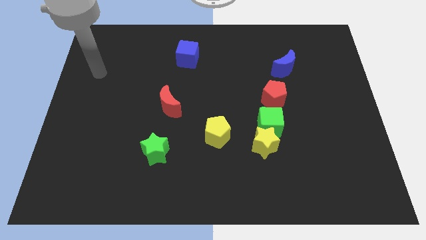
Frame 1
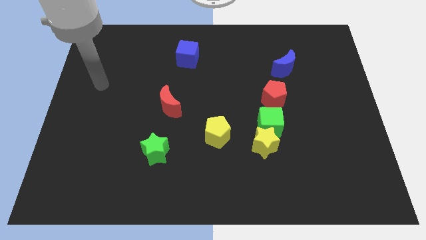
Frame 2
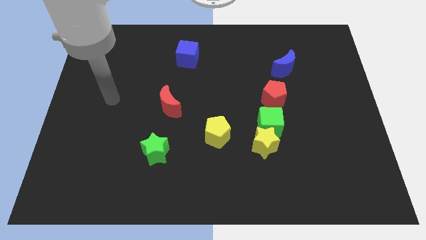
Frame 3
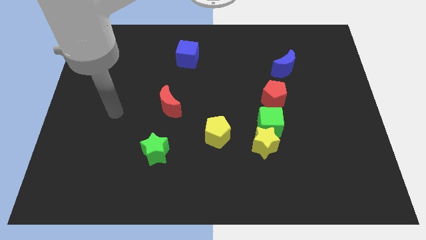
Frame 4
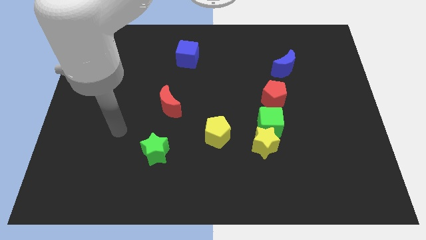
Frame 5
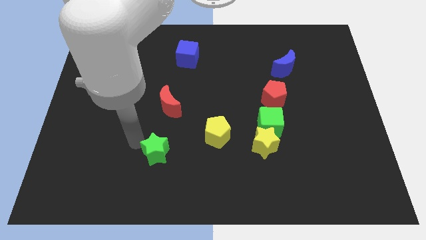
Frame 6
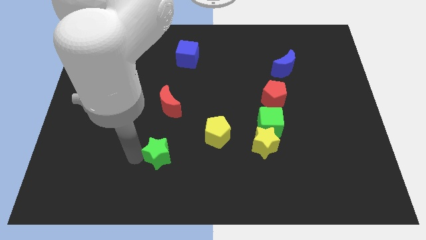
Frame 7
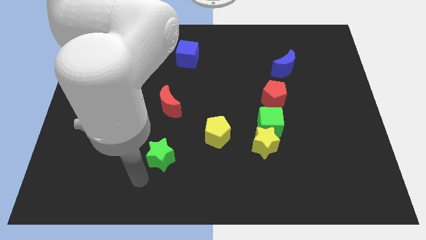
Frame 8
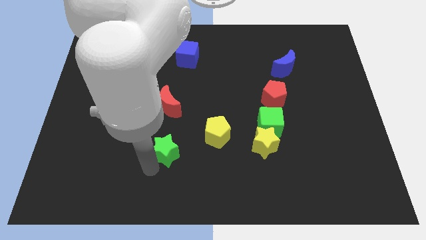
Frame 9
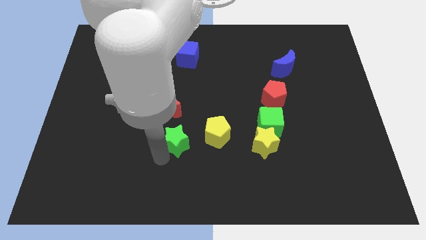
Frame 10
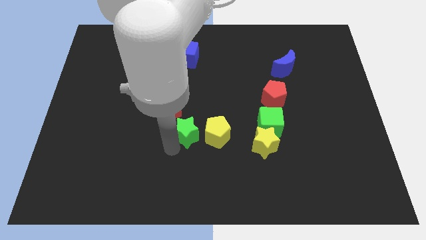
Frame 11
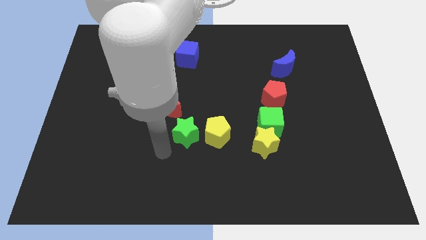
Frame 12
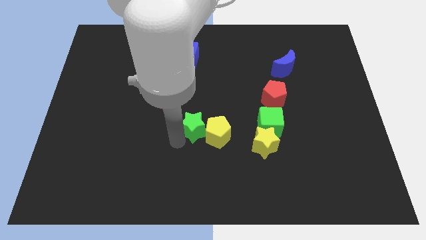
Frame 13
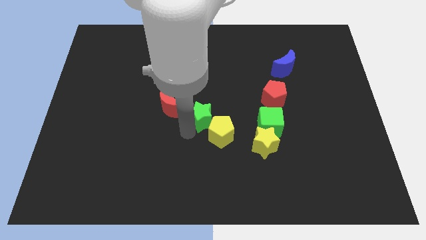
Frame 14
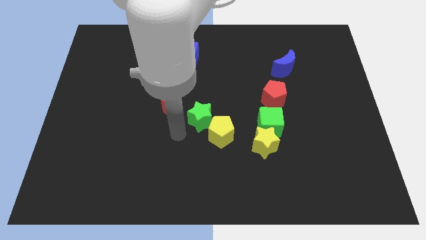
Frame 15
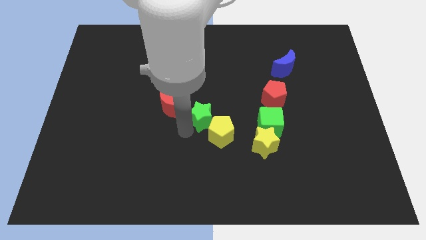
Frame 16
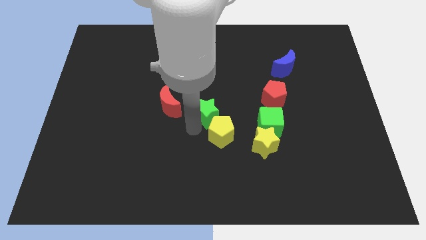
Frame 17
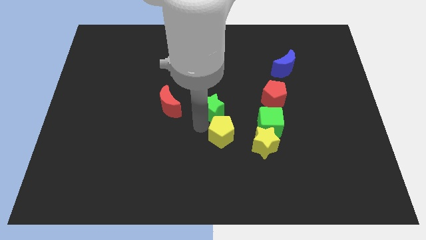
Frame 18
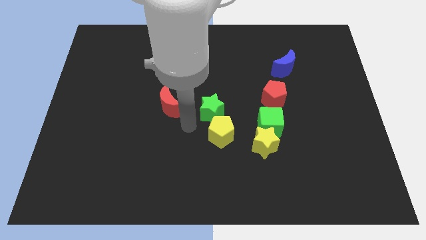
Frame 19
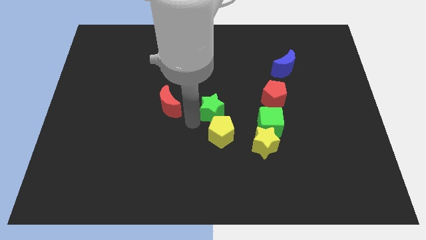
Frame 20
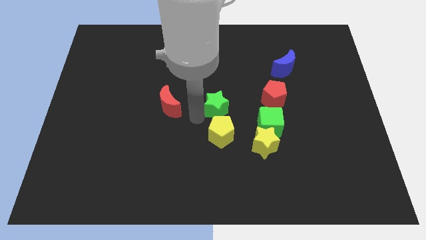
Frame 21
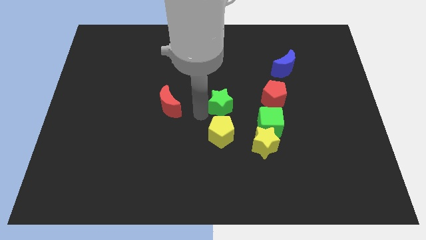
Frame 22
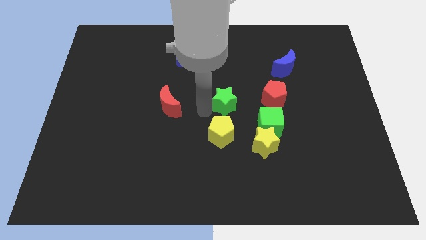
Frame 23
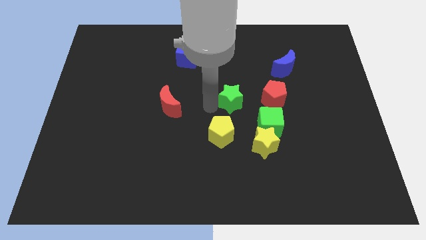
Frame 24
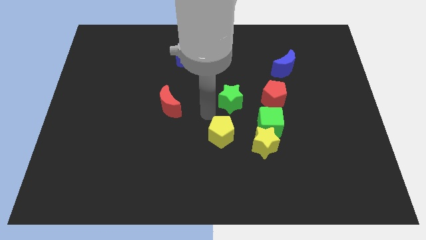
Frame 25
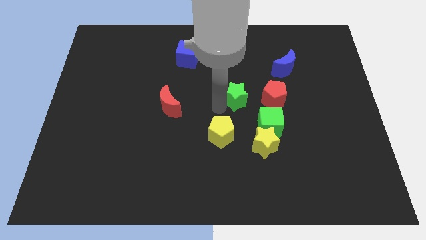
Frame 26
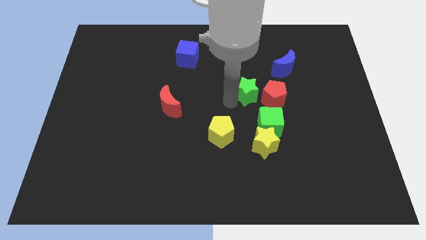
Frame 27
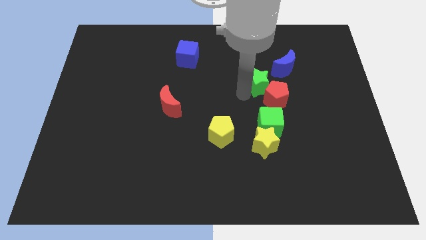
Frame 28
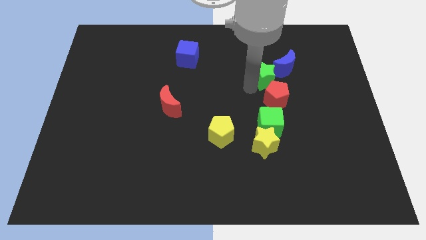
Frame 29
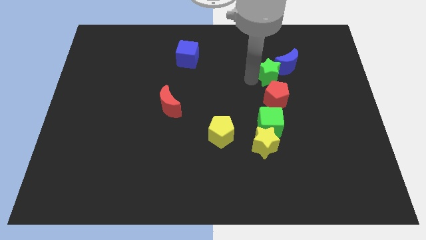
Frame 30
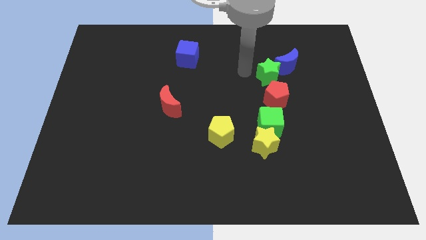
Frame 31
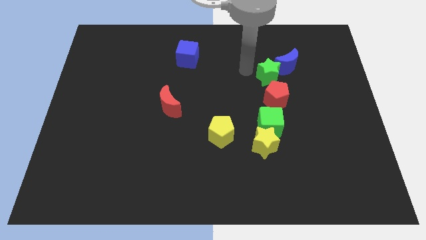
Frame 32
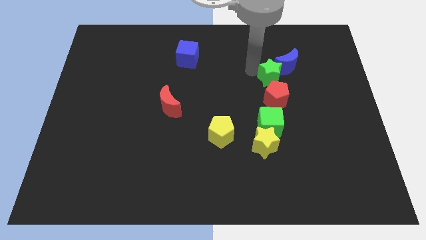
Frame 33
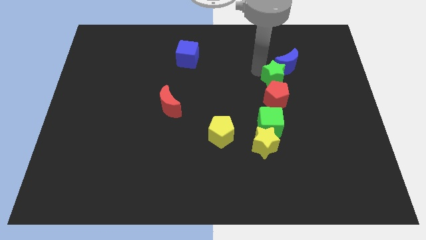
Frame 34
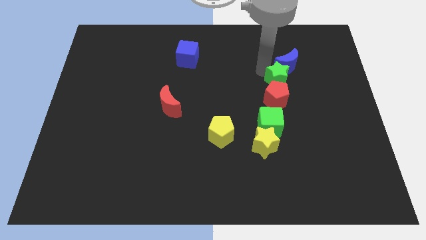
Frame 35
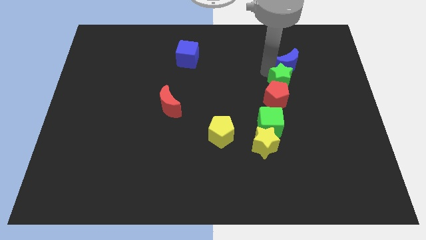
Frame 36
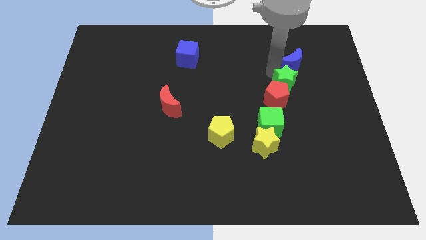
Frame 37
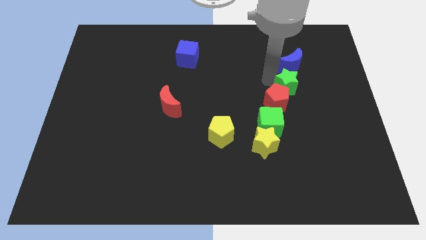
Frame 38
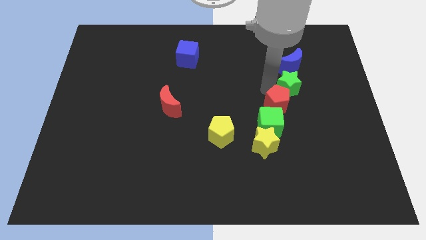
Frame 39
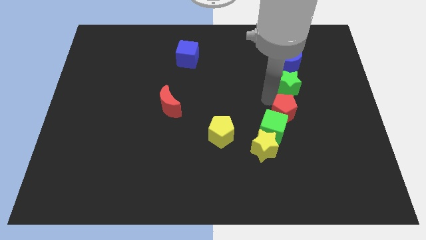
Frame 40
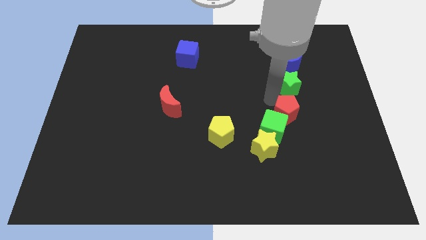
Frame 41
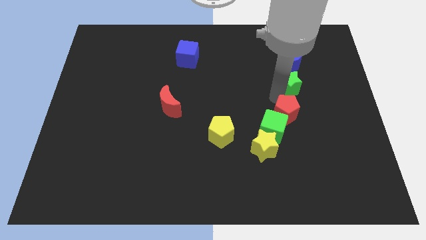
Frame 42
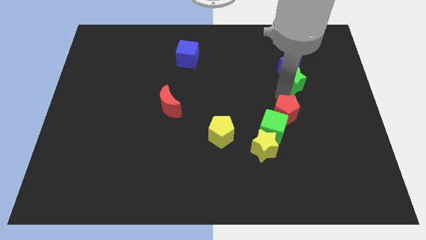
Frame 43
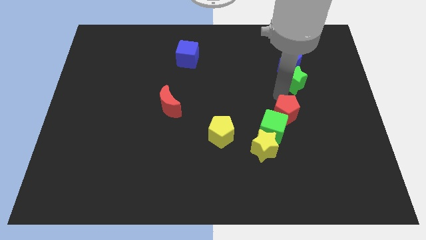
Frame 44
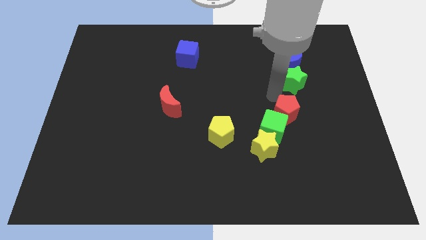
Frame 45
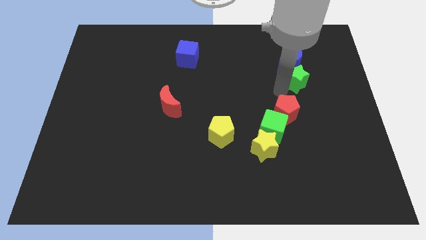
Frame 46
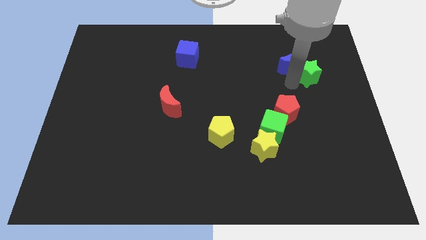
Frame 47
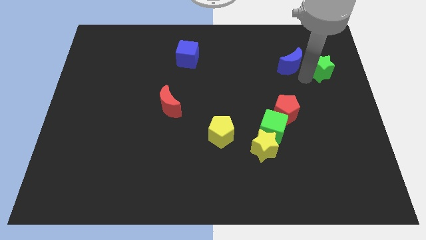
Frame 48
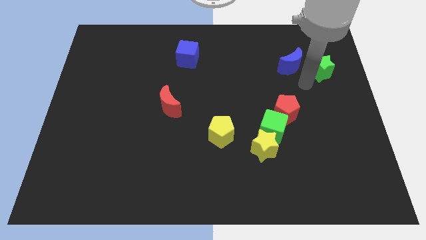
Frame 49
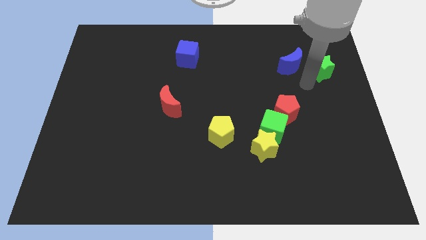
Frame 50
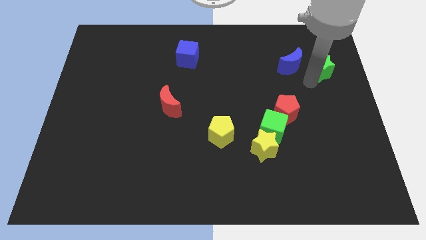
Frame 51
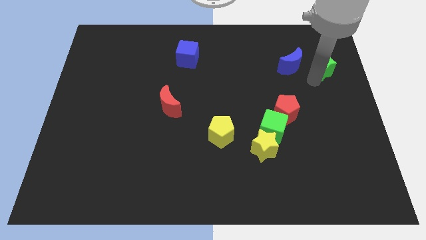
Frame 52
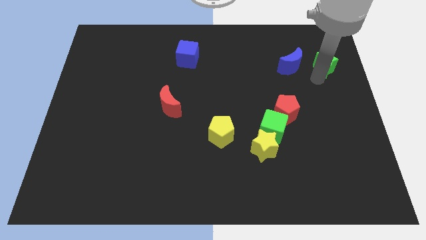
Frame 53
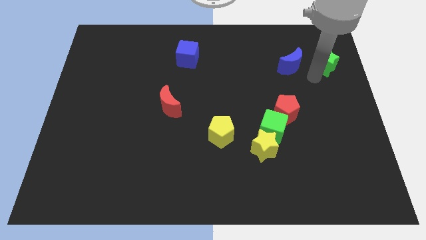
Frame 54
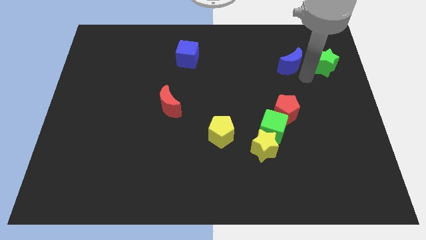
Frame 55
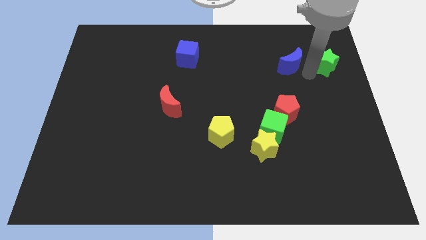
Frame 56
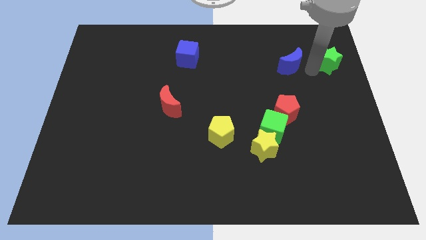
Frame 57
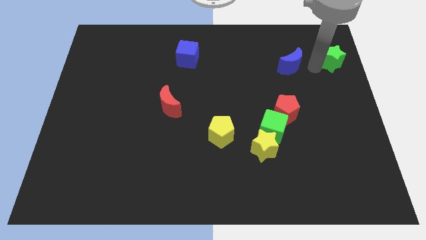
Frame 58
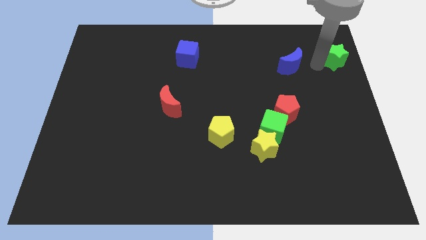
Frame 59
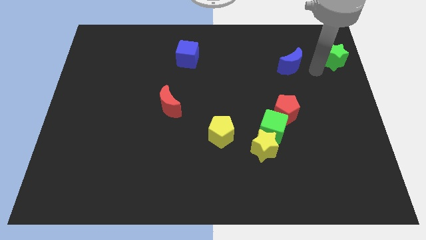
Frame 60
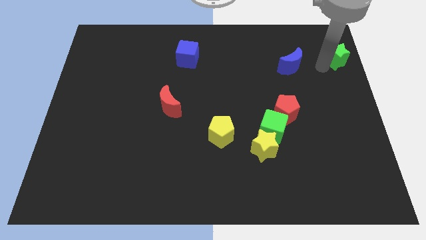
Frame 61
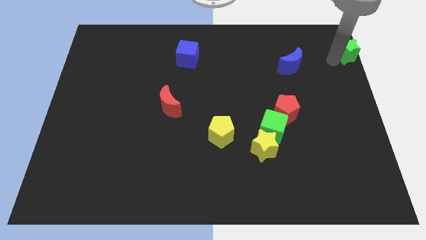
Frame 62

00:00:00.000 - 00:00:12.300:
slide the green star to the top right corner

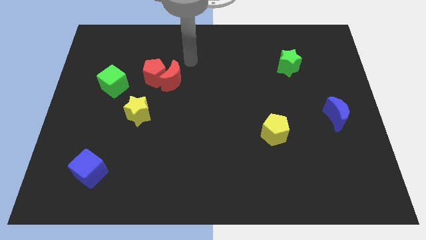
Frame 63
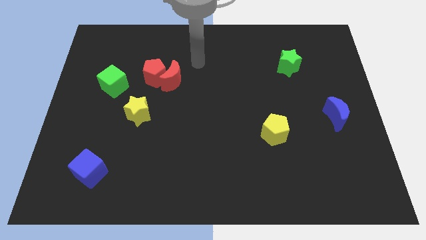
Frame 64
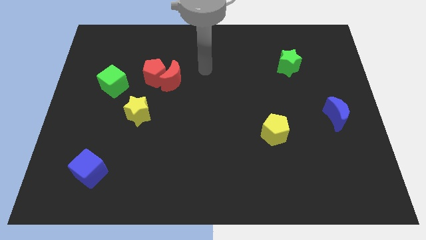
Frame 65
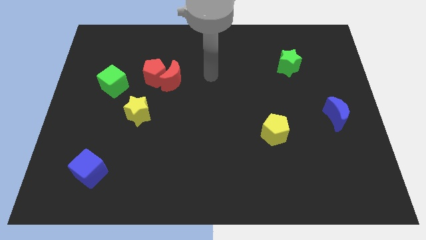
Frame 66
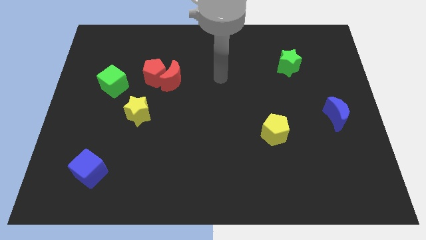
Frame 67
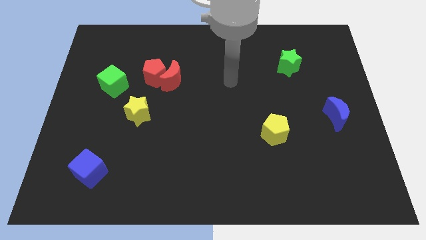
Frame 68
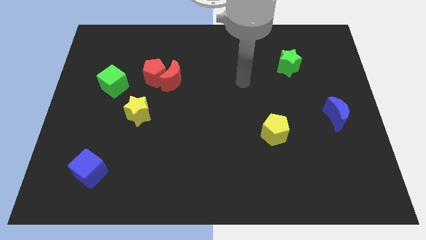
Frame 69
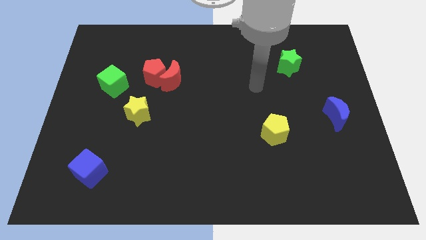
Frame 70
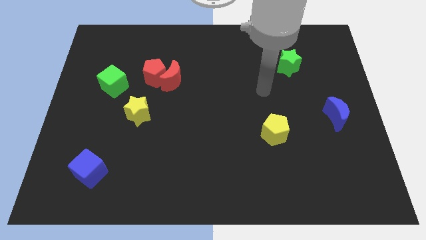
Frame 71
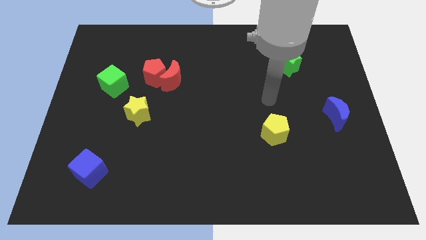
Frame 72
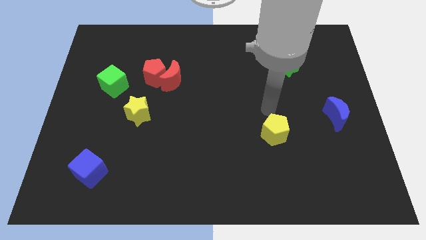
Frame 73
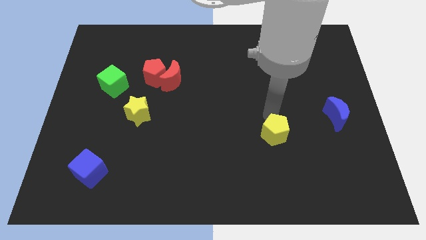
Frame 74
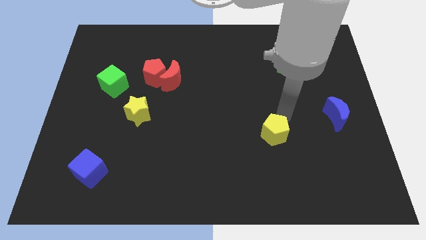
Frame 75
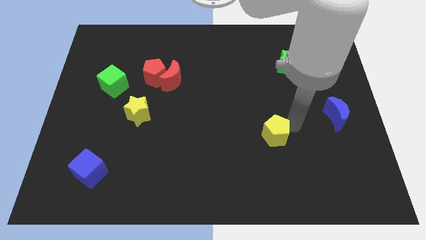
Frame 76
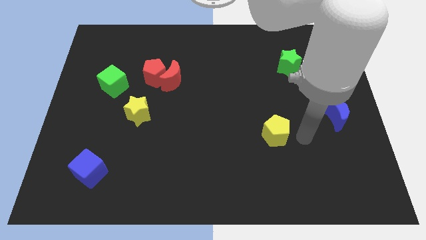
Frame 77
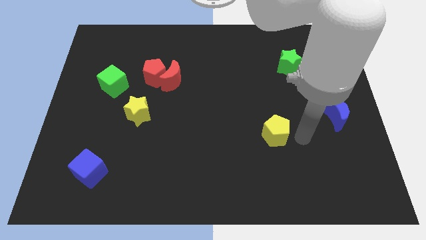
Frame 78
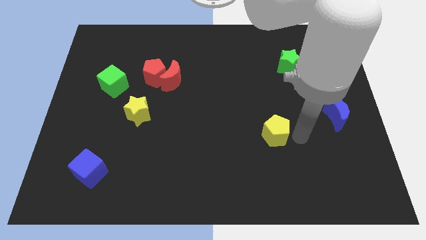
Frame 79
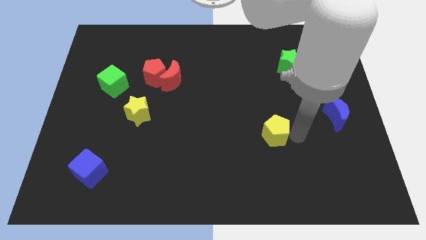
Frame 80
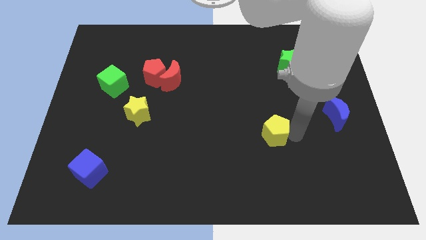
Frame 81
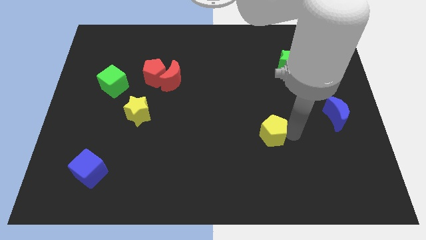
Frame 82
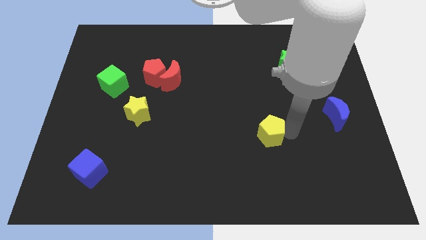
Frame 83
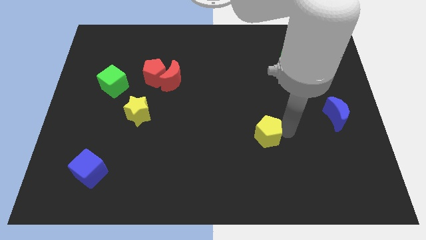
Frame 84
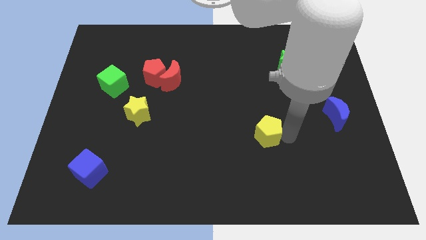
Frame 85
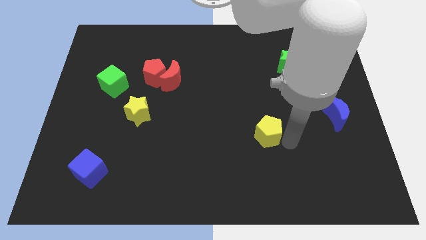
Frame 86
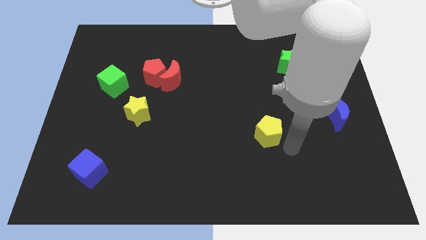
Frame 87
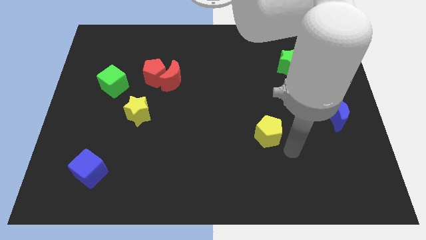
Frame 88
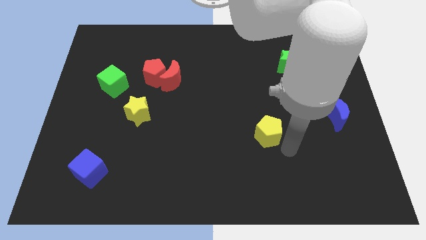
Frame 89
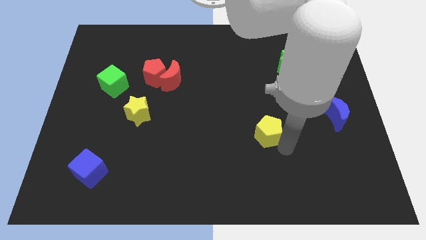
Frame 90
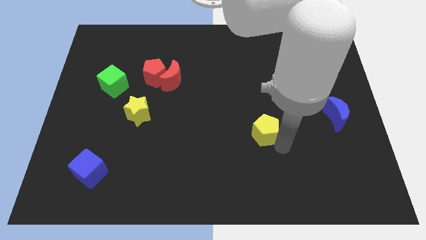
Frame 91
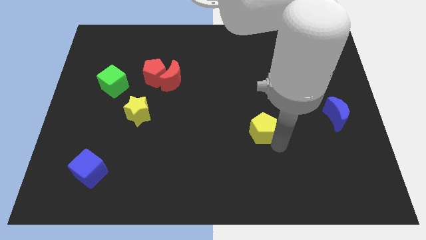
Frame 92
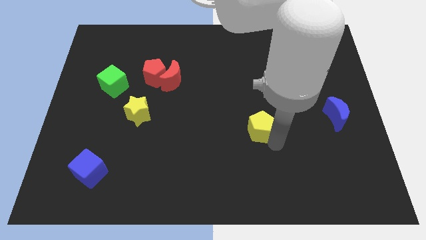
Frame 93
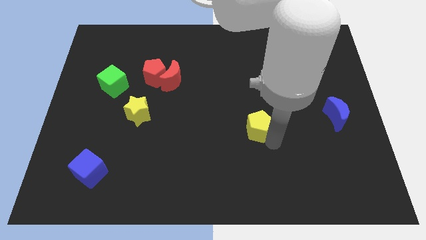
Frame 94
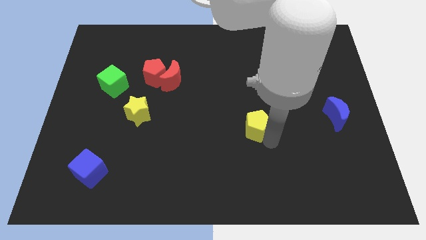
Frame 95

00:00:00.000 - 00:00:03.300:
move the yellow pentagon to the center of the board
